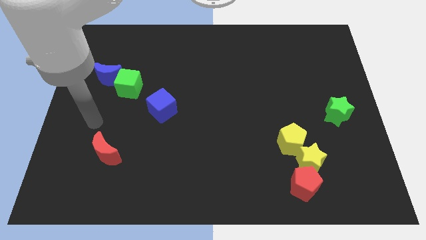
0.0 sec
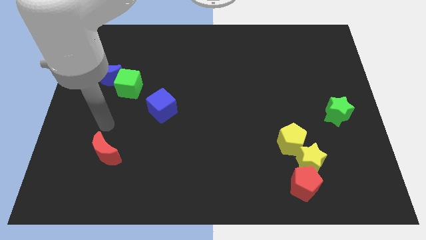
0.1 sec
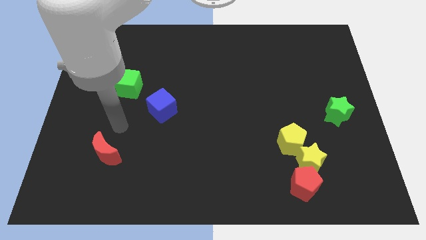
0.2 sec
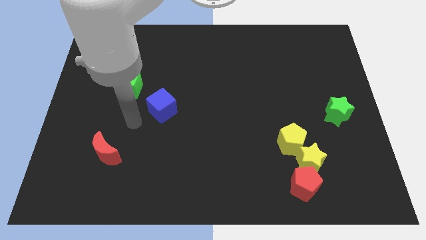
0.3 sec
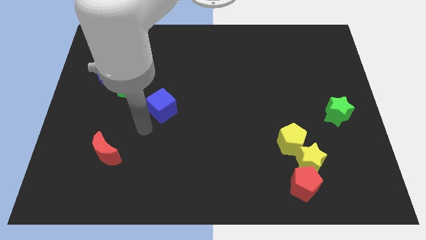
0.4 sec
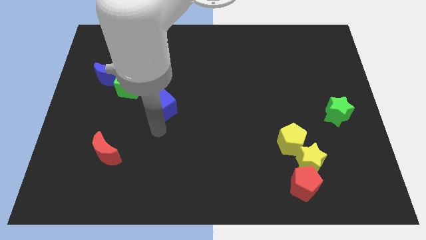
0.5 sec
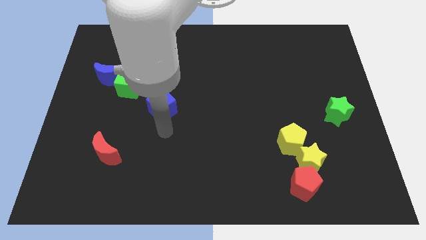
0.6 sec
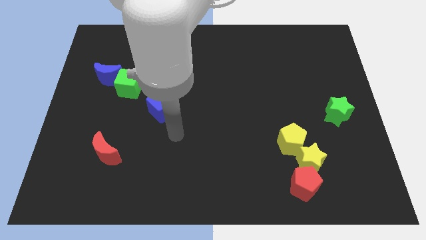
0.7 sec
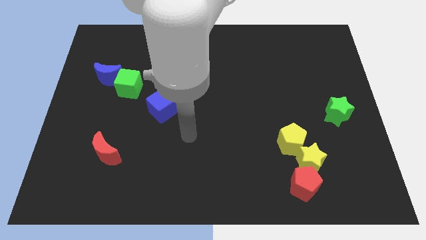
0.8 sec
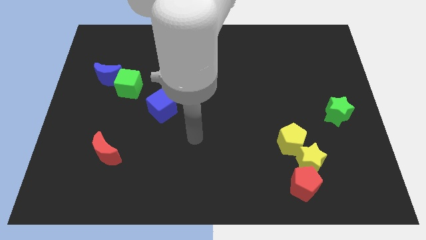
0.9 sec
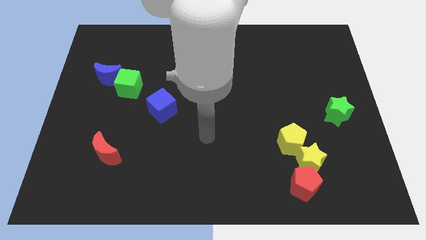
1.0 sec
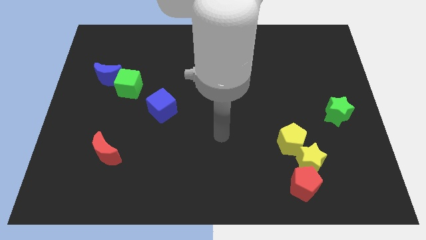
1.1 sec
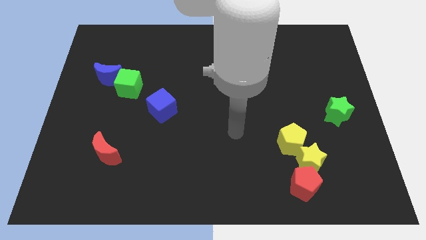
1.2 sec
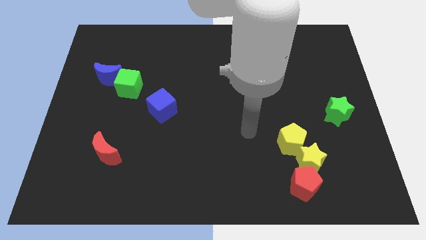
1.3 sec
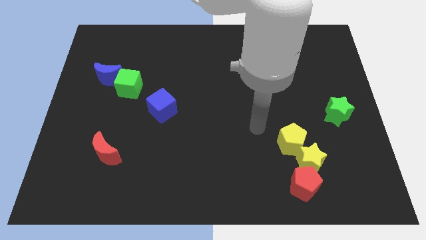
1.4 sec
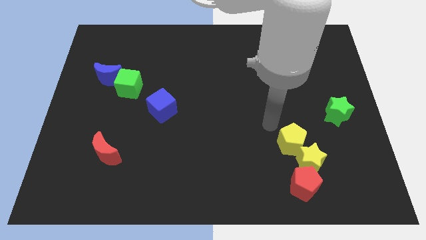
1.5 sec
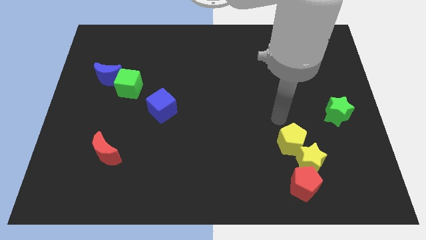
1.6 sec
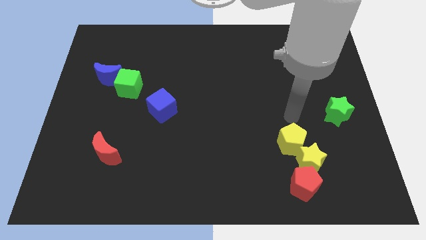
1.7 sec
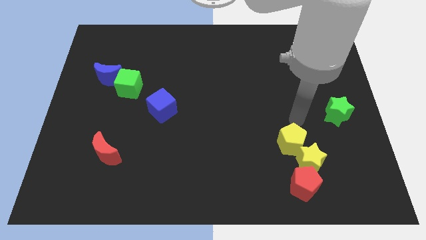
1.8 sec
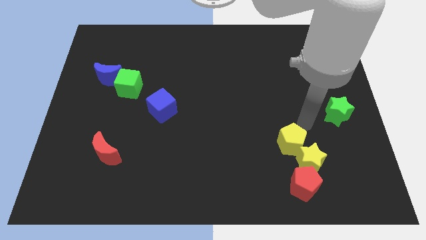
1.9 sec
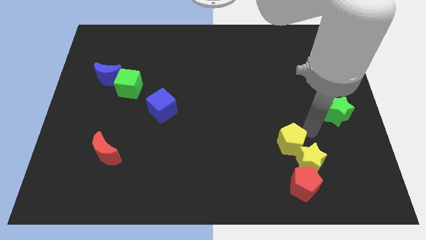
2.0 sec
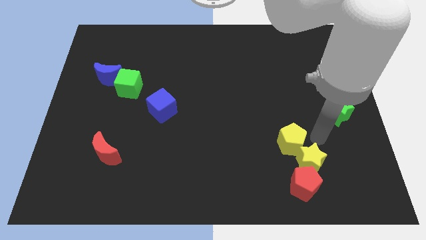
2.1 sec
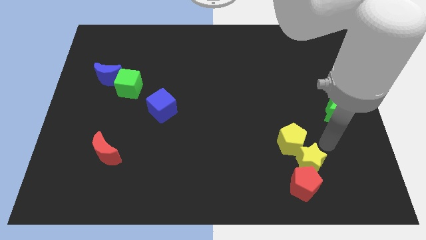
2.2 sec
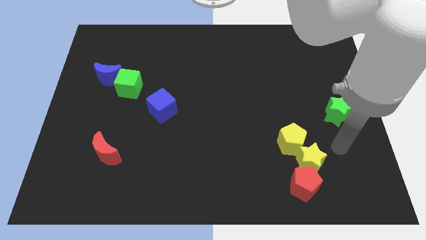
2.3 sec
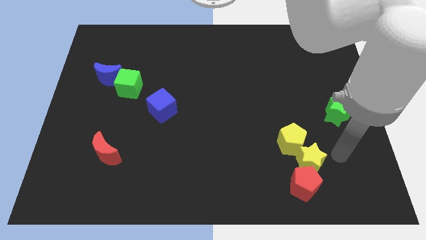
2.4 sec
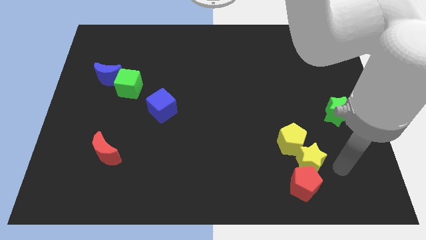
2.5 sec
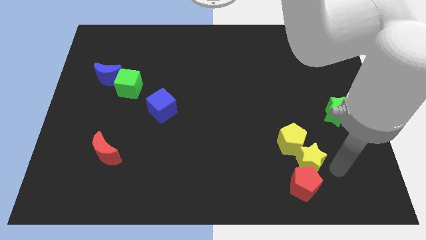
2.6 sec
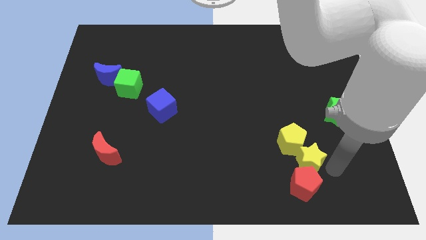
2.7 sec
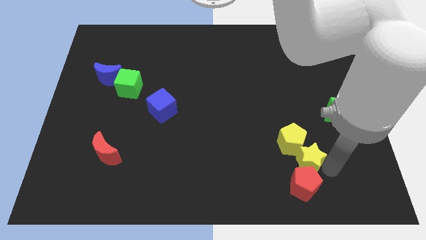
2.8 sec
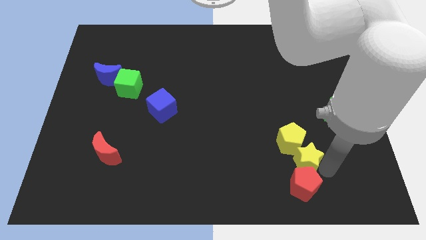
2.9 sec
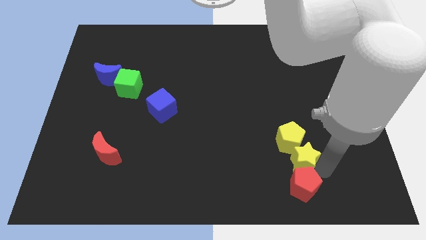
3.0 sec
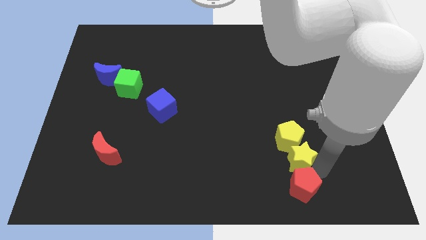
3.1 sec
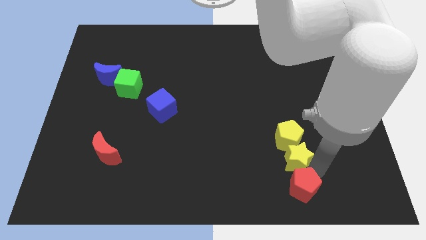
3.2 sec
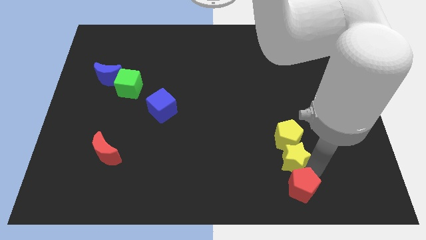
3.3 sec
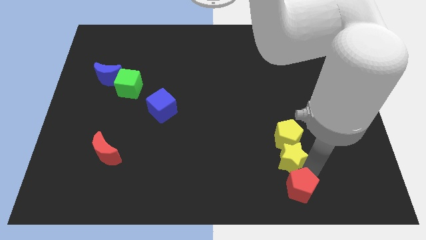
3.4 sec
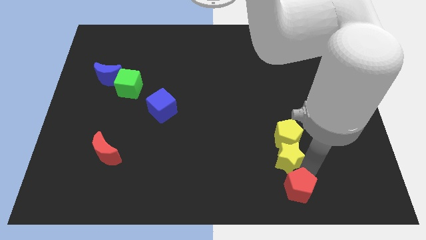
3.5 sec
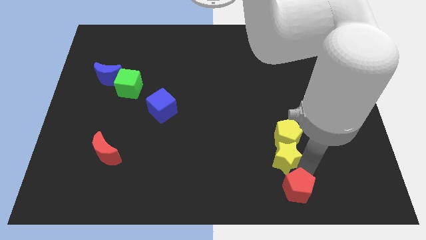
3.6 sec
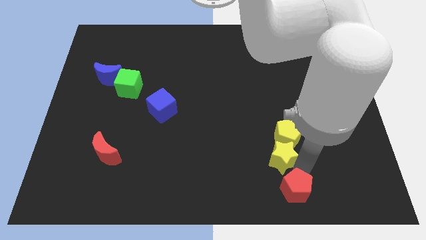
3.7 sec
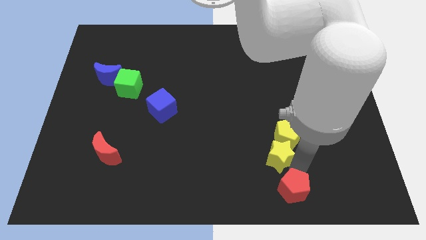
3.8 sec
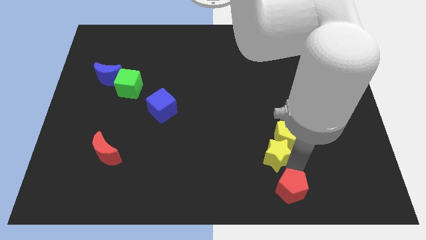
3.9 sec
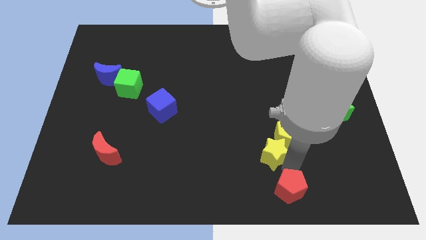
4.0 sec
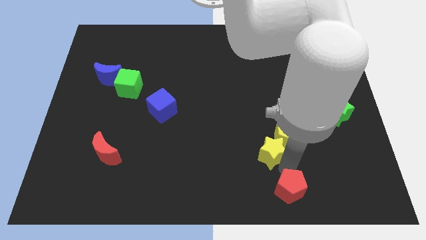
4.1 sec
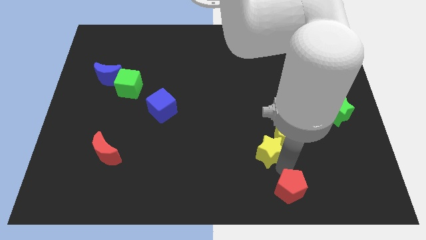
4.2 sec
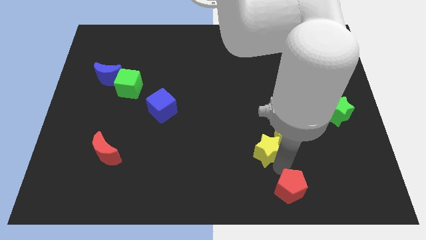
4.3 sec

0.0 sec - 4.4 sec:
slightly push the yellow star upwards and to the left

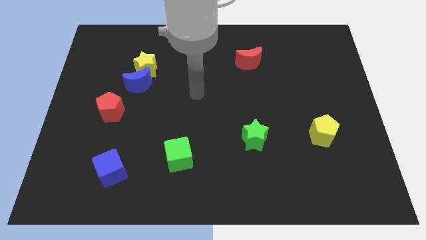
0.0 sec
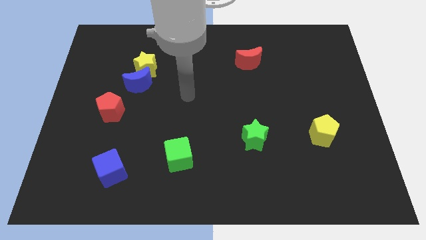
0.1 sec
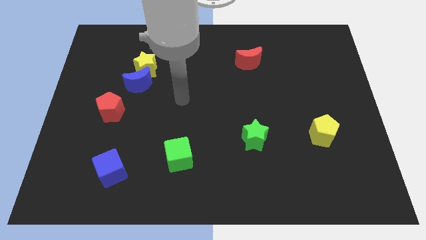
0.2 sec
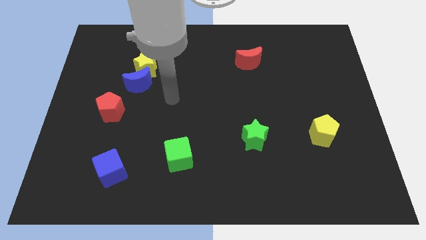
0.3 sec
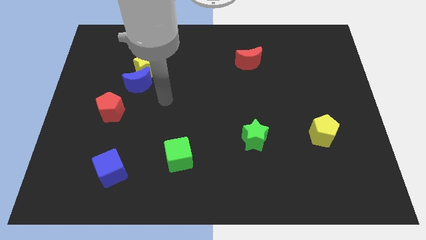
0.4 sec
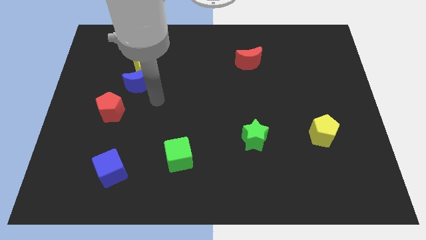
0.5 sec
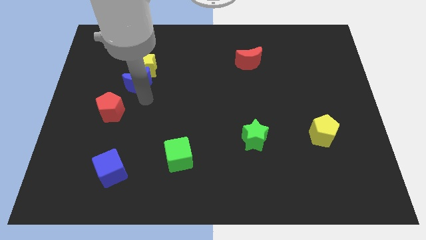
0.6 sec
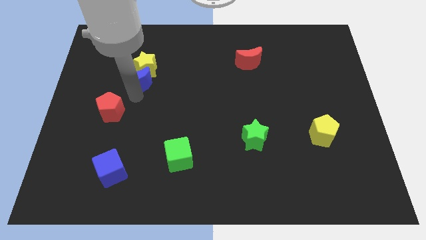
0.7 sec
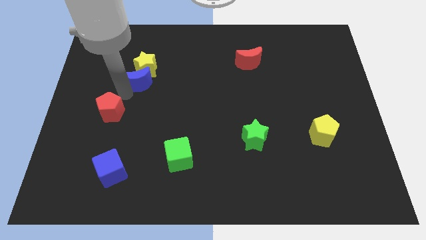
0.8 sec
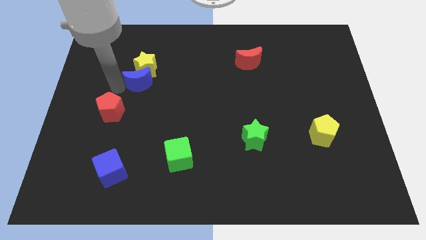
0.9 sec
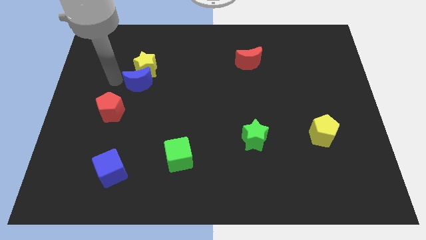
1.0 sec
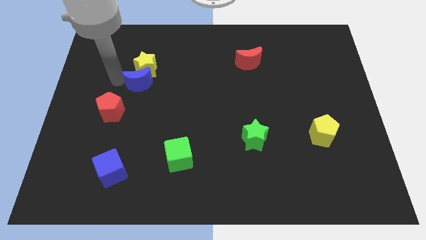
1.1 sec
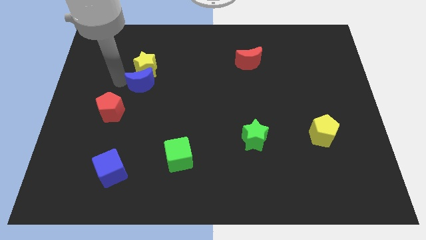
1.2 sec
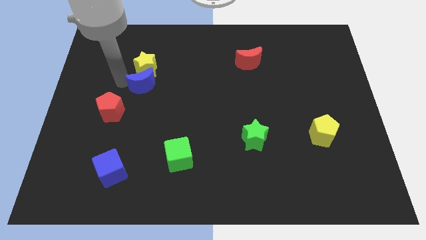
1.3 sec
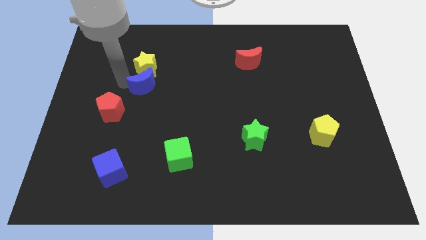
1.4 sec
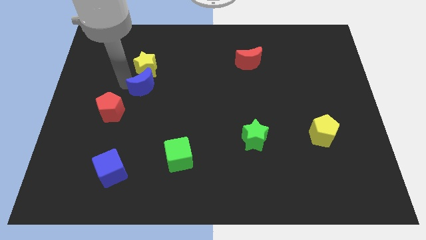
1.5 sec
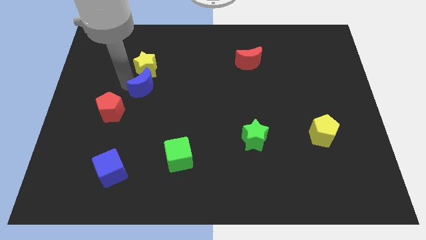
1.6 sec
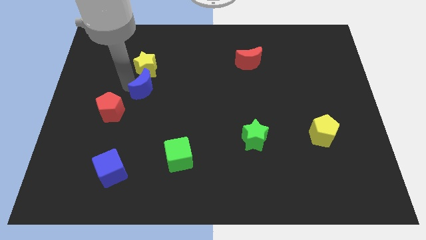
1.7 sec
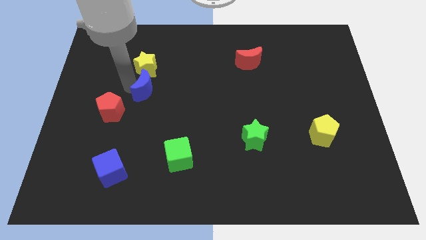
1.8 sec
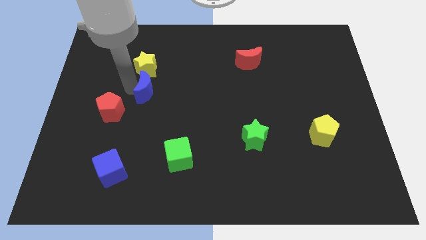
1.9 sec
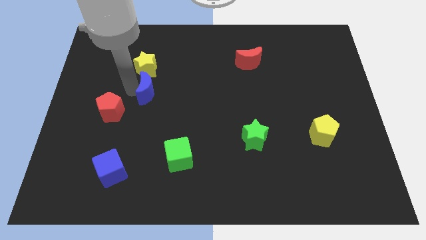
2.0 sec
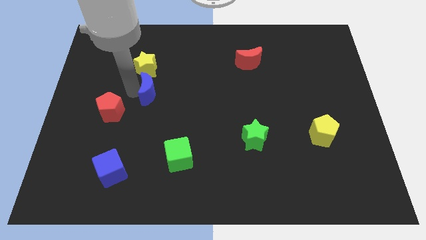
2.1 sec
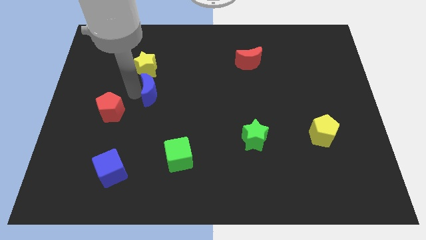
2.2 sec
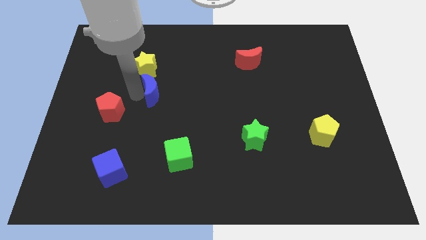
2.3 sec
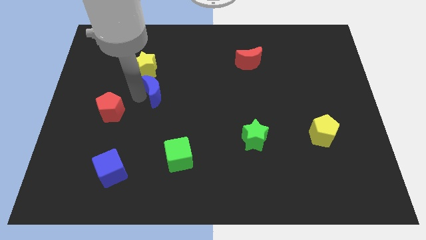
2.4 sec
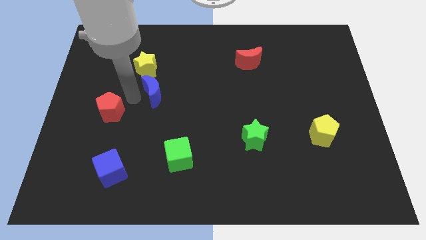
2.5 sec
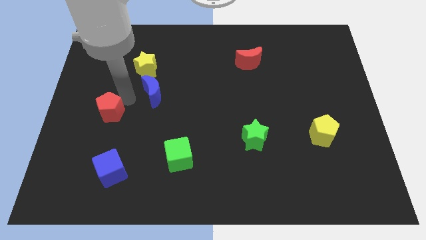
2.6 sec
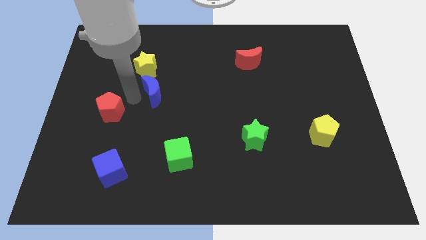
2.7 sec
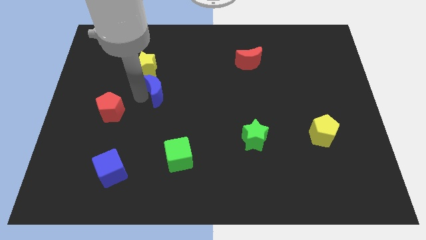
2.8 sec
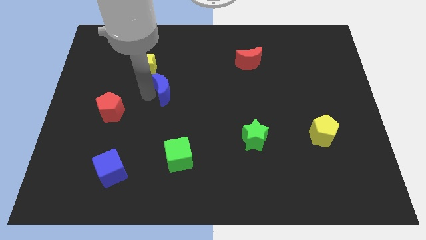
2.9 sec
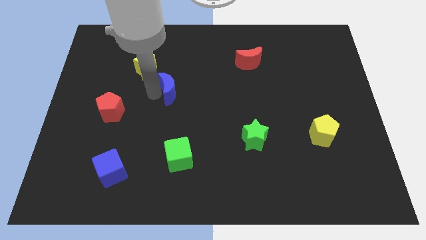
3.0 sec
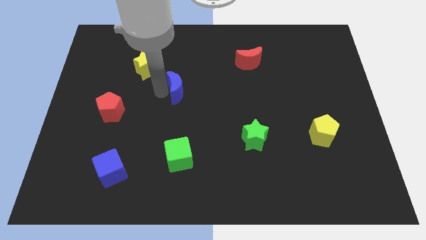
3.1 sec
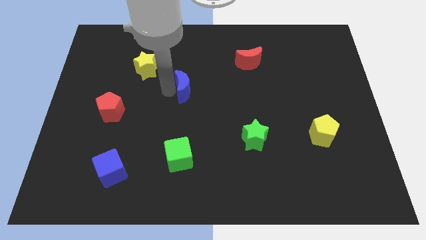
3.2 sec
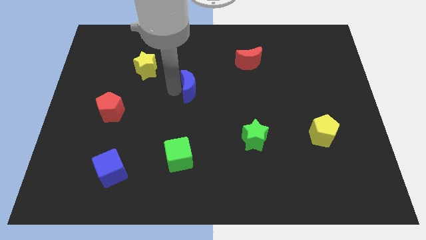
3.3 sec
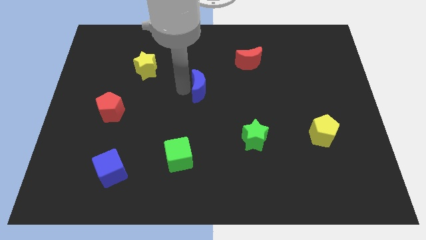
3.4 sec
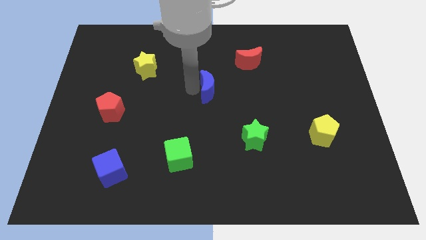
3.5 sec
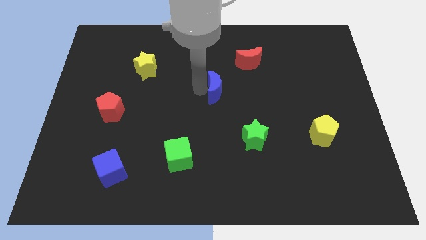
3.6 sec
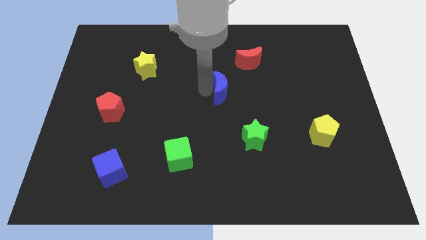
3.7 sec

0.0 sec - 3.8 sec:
move the blue moon right
